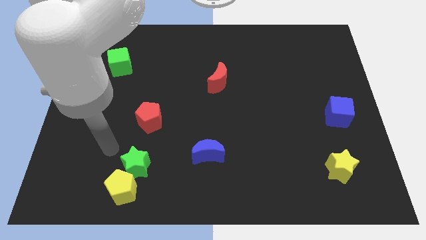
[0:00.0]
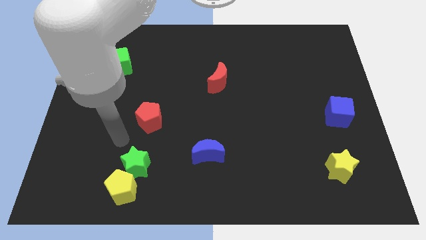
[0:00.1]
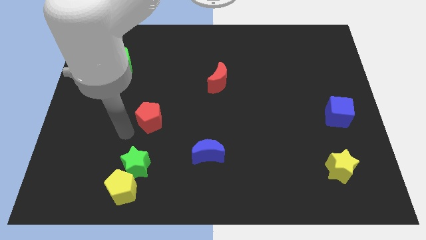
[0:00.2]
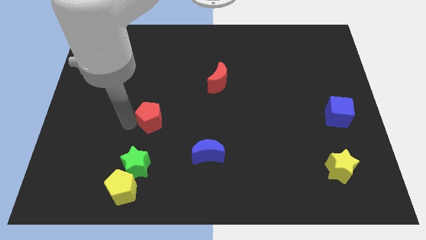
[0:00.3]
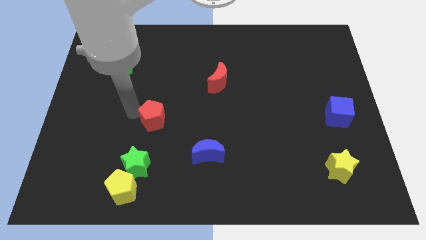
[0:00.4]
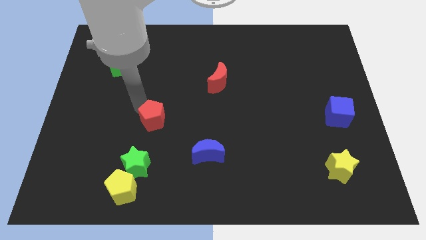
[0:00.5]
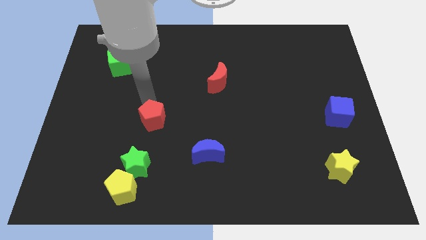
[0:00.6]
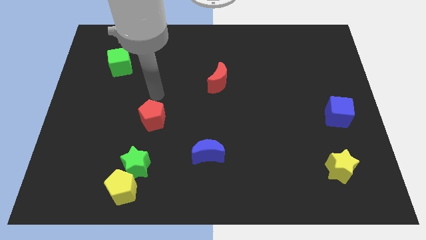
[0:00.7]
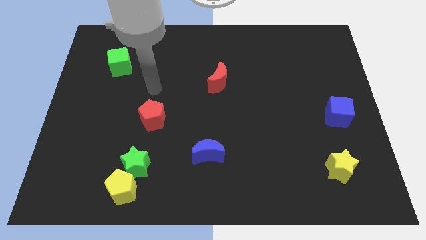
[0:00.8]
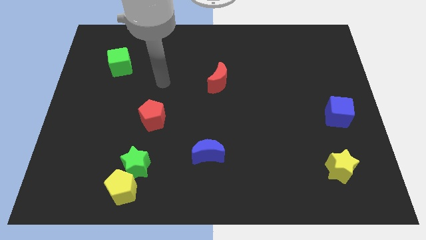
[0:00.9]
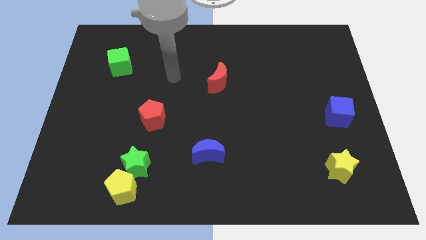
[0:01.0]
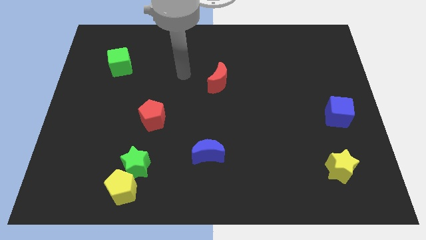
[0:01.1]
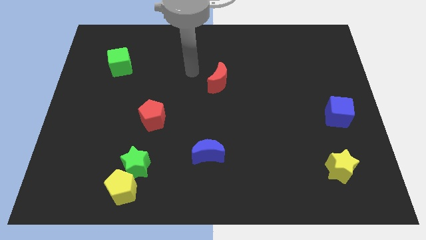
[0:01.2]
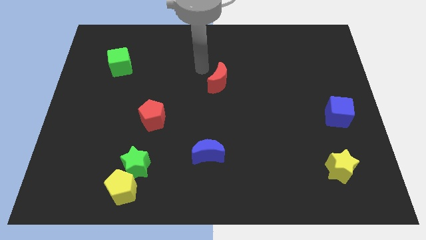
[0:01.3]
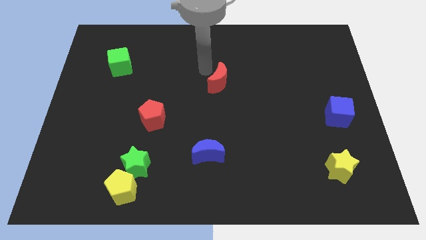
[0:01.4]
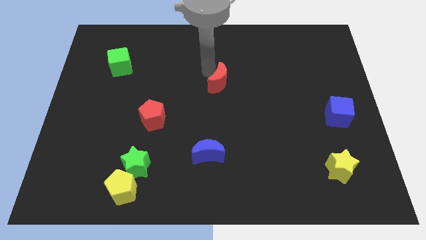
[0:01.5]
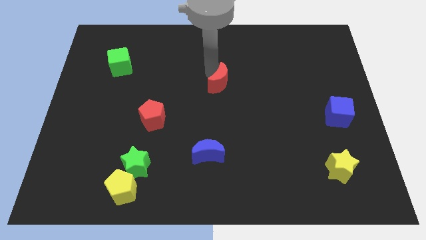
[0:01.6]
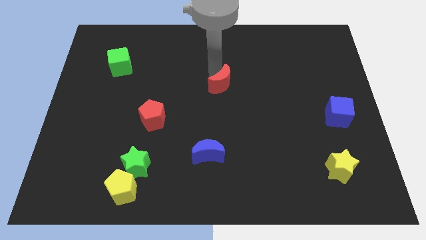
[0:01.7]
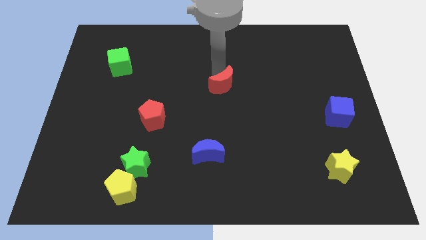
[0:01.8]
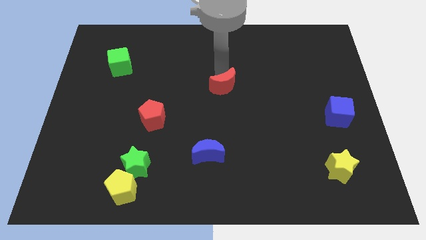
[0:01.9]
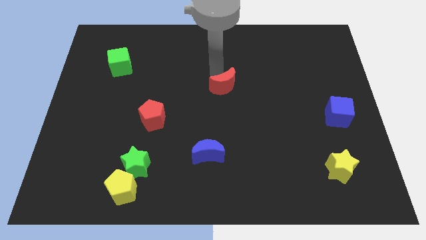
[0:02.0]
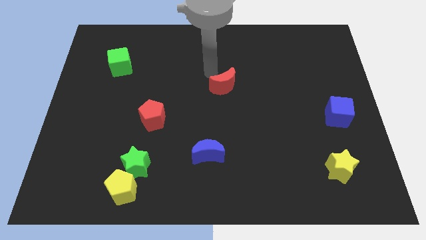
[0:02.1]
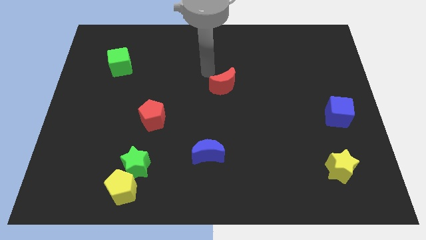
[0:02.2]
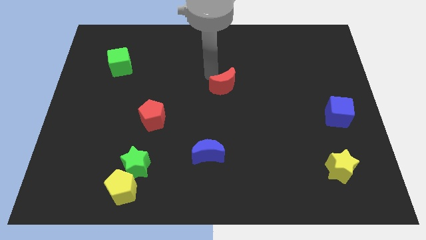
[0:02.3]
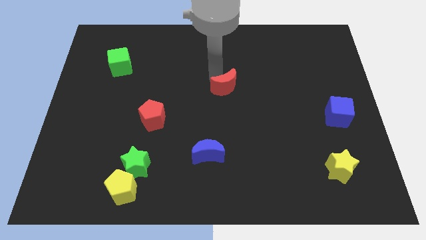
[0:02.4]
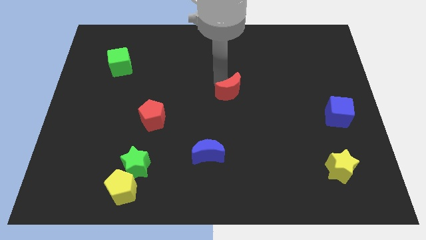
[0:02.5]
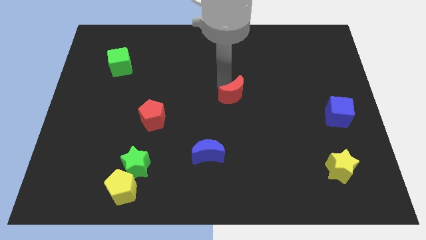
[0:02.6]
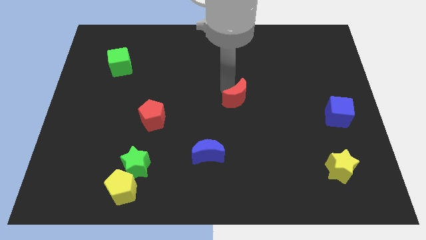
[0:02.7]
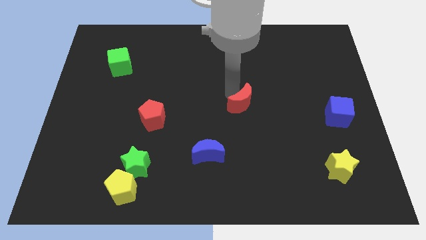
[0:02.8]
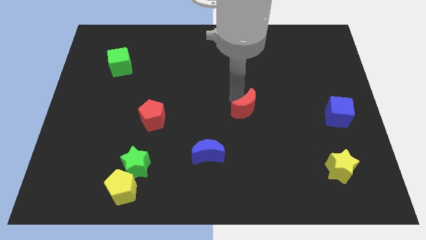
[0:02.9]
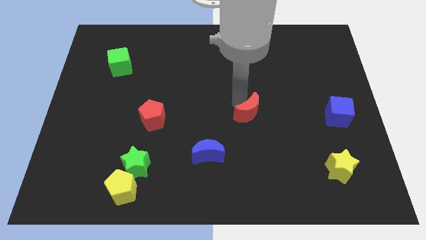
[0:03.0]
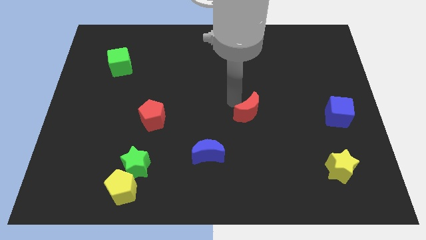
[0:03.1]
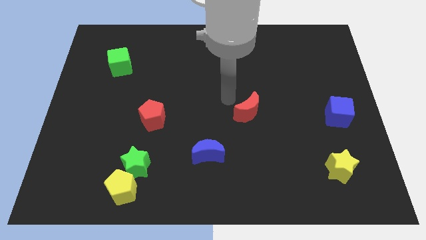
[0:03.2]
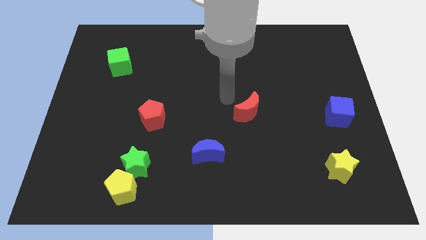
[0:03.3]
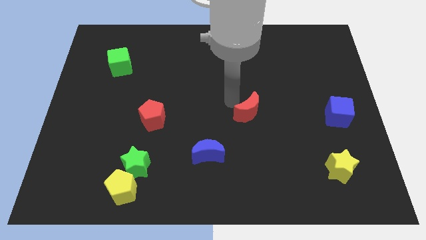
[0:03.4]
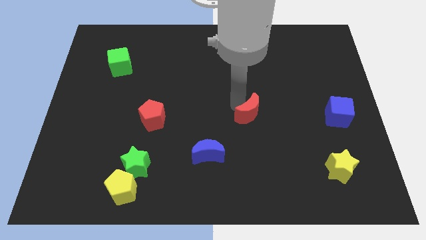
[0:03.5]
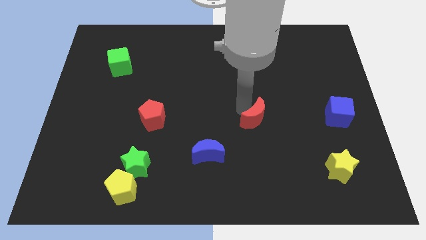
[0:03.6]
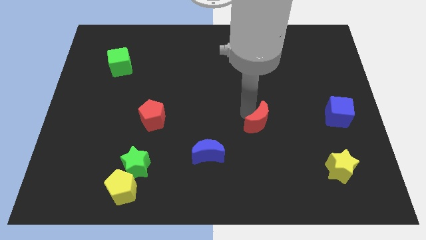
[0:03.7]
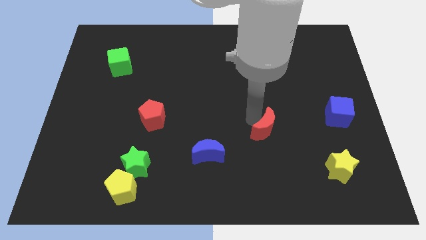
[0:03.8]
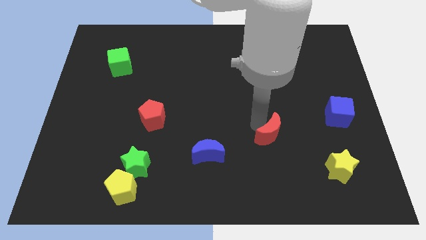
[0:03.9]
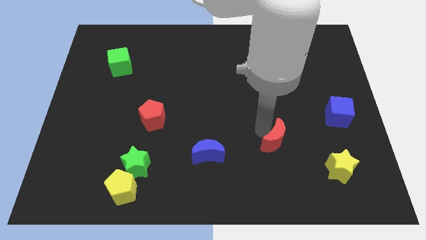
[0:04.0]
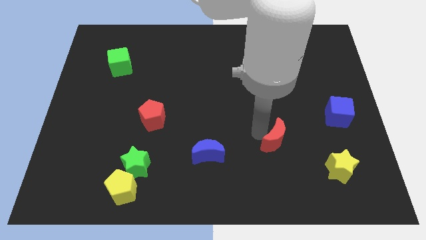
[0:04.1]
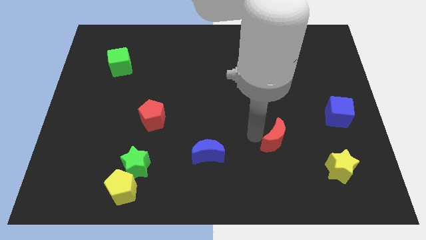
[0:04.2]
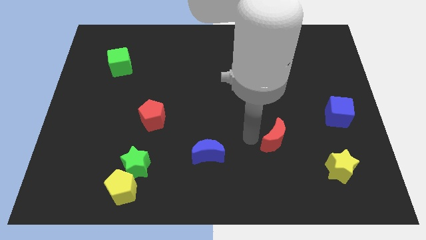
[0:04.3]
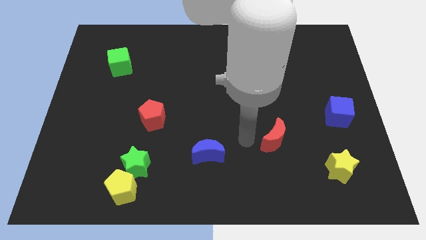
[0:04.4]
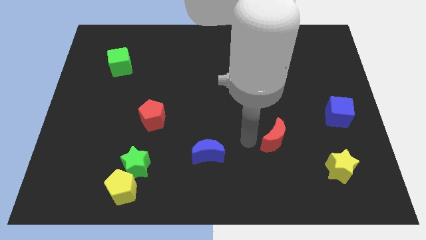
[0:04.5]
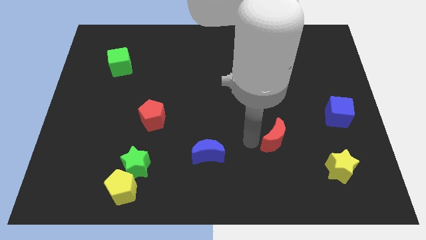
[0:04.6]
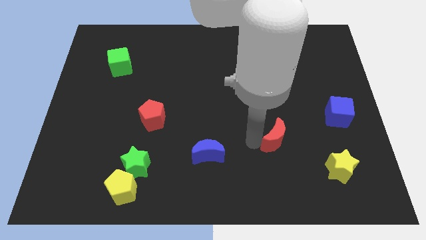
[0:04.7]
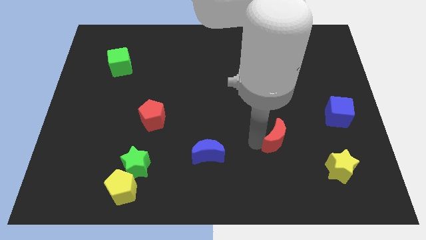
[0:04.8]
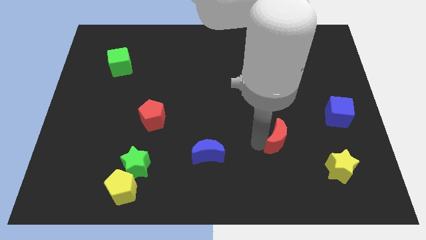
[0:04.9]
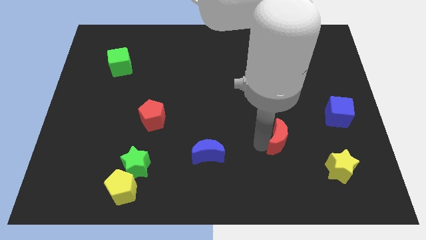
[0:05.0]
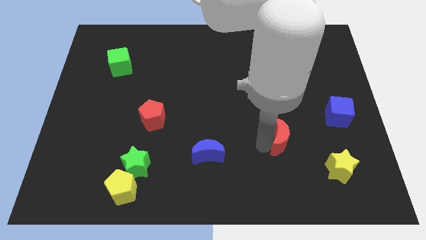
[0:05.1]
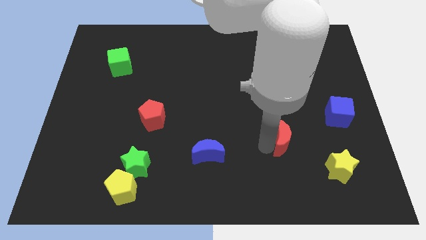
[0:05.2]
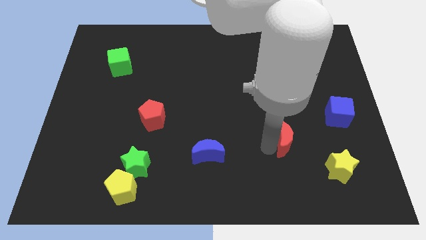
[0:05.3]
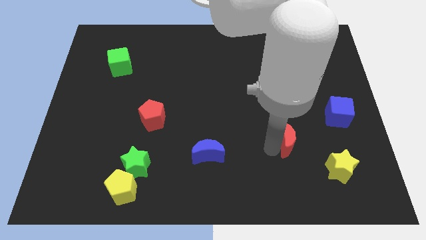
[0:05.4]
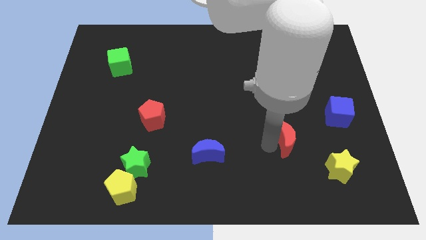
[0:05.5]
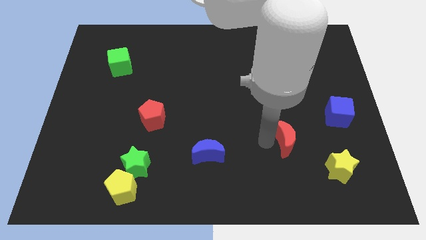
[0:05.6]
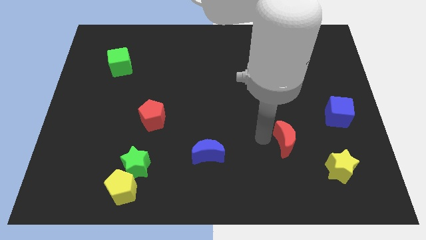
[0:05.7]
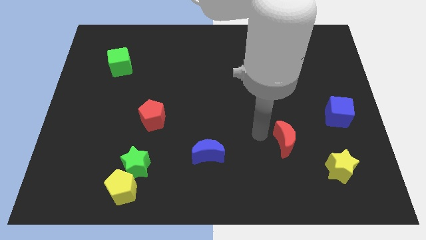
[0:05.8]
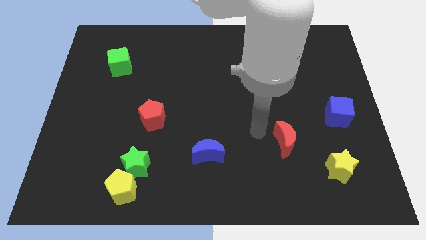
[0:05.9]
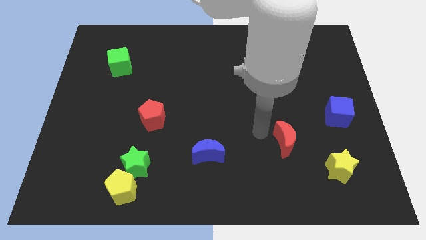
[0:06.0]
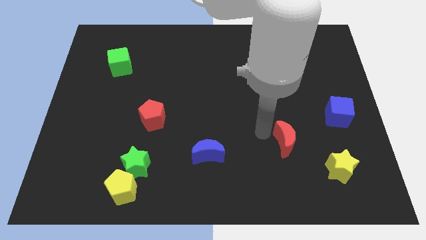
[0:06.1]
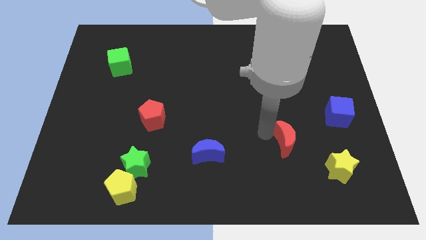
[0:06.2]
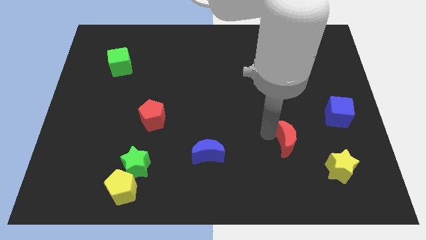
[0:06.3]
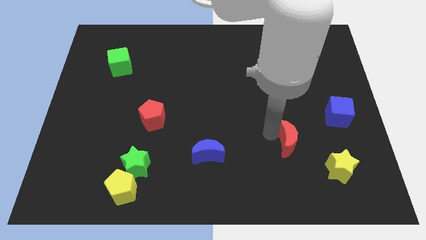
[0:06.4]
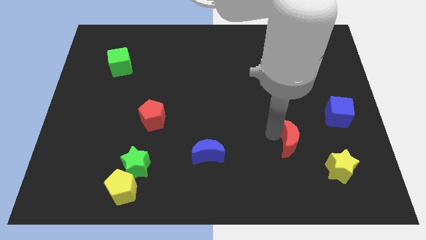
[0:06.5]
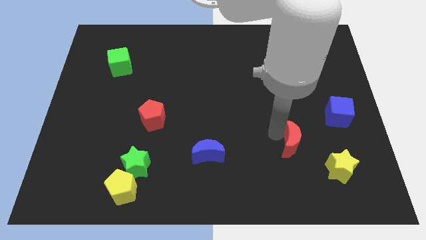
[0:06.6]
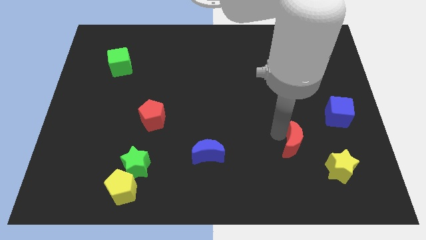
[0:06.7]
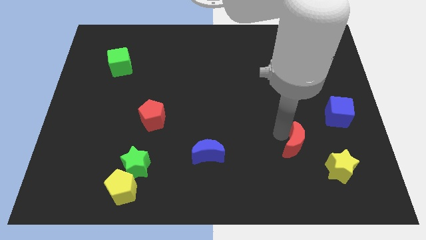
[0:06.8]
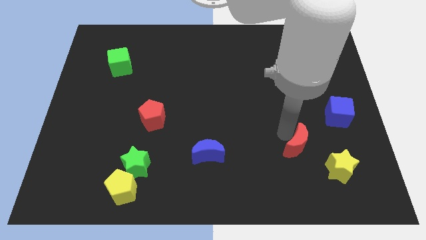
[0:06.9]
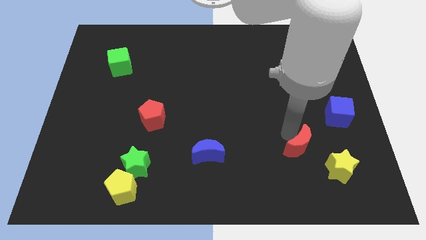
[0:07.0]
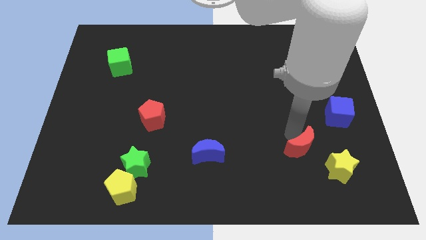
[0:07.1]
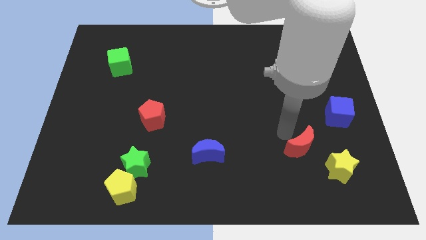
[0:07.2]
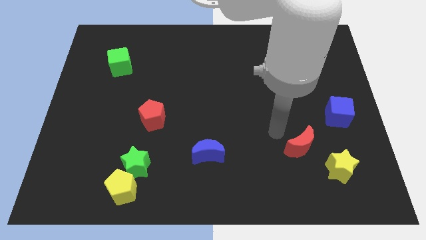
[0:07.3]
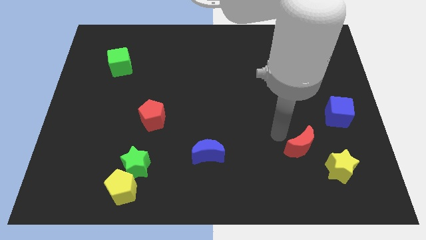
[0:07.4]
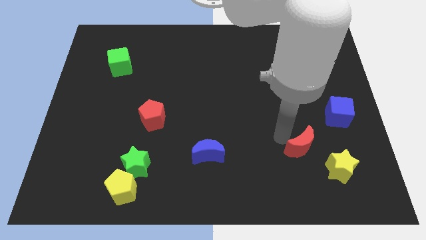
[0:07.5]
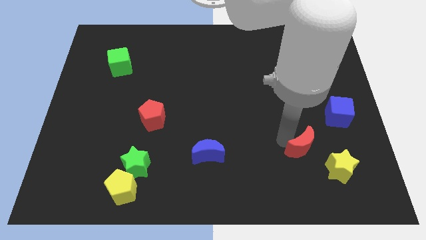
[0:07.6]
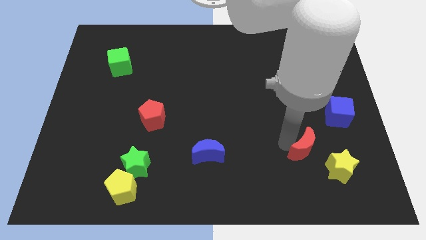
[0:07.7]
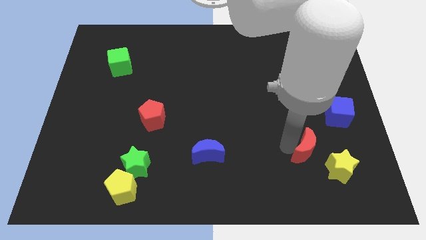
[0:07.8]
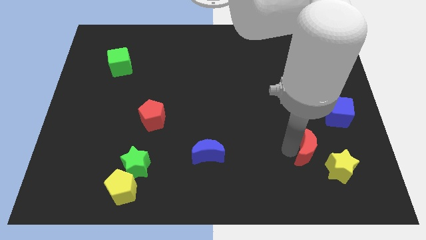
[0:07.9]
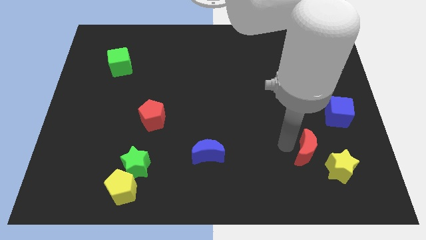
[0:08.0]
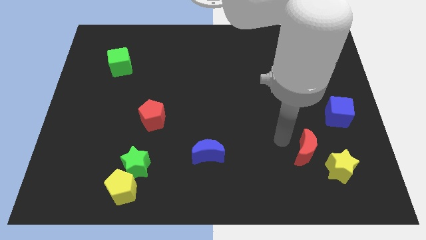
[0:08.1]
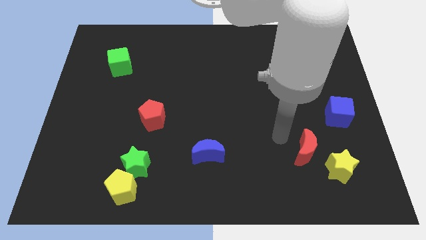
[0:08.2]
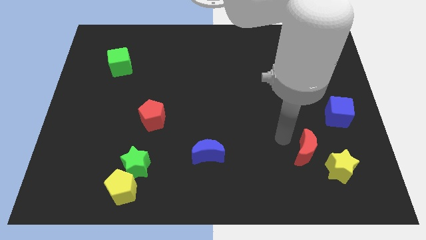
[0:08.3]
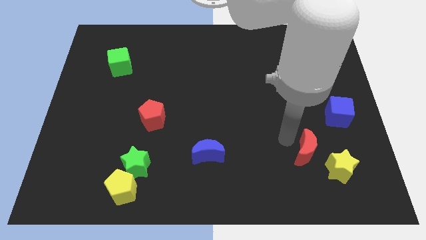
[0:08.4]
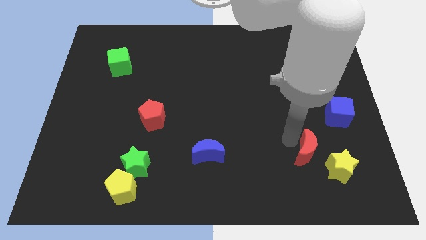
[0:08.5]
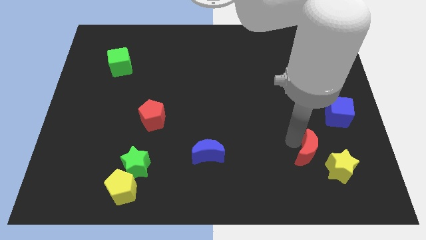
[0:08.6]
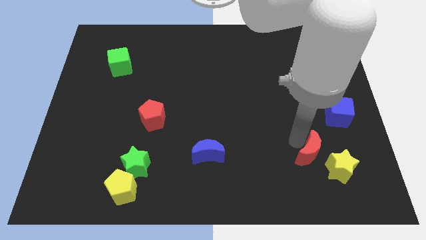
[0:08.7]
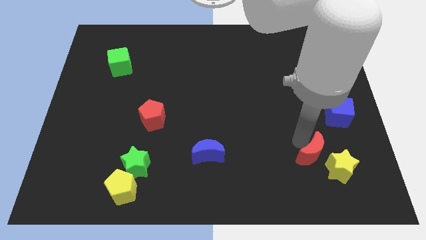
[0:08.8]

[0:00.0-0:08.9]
move the red moon to the yellow star
